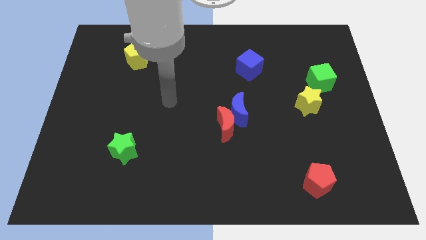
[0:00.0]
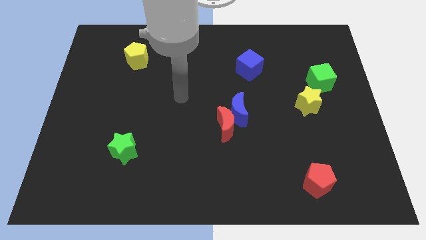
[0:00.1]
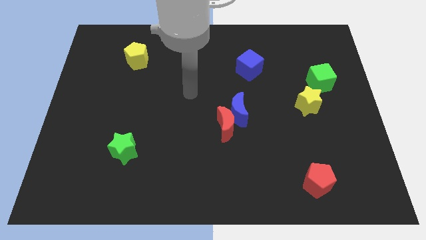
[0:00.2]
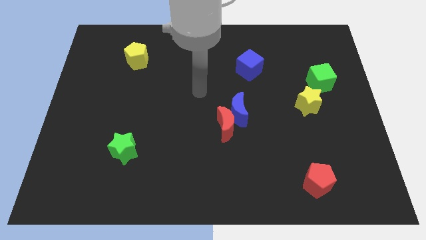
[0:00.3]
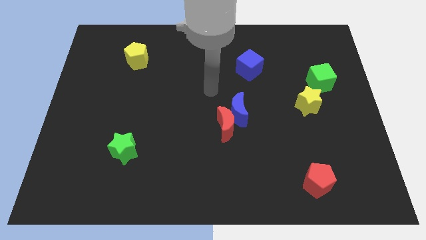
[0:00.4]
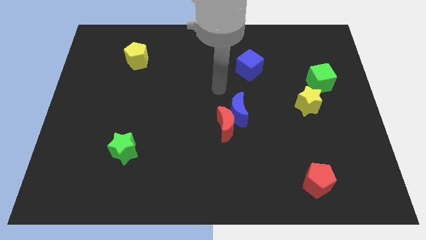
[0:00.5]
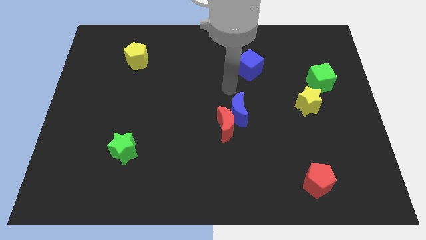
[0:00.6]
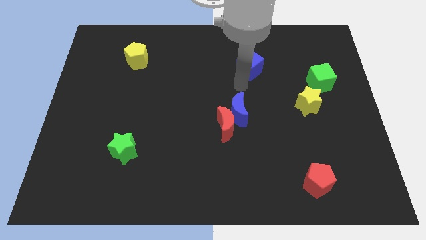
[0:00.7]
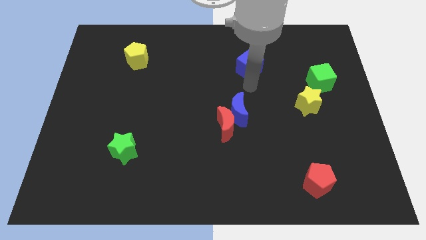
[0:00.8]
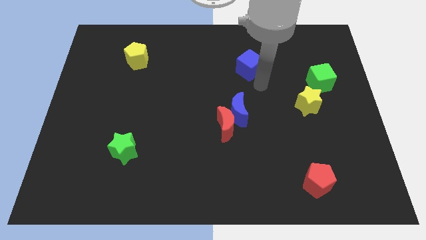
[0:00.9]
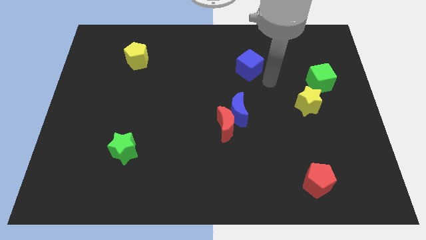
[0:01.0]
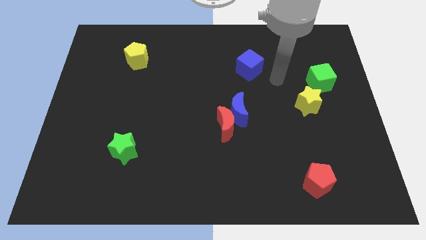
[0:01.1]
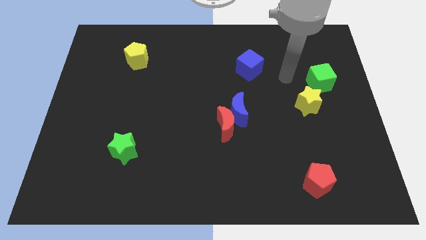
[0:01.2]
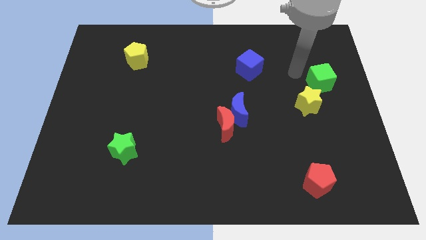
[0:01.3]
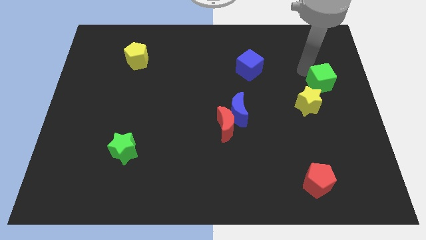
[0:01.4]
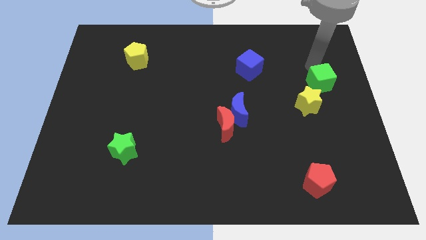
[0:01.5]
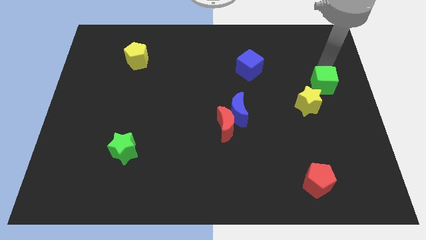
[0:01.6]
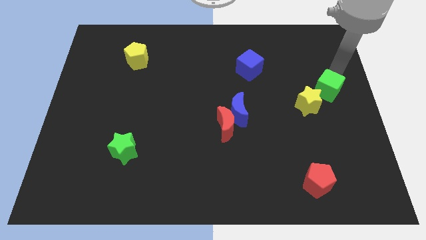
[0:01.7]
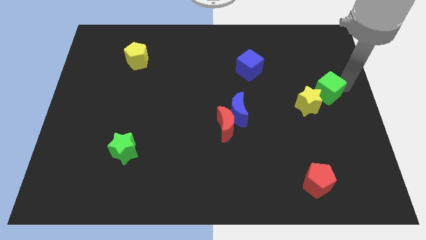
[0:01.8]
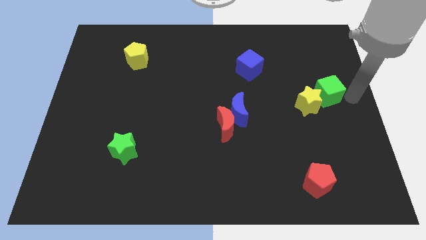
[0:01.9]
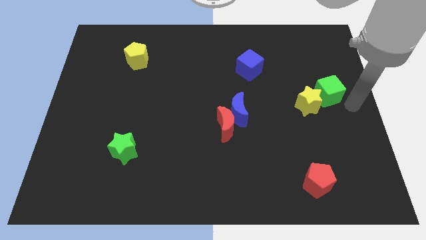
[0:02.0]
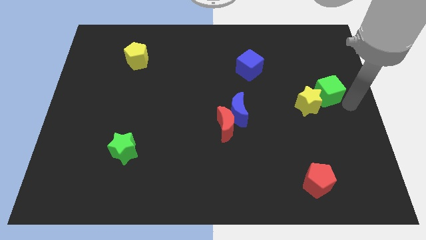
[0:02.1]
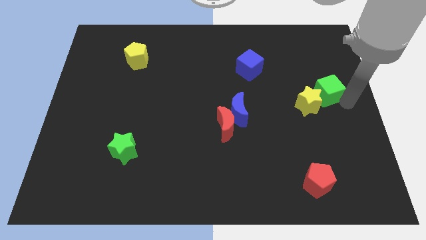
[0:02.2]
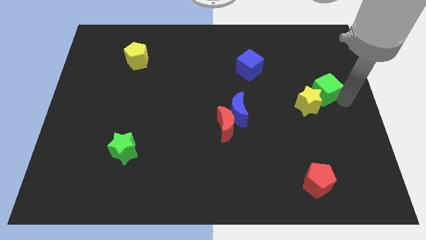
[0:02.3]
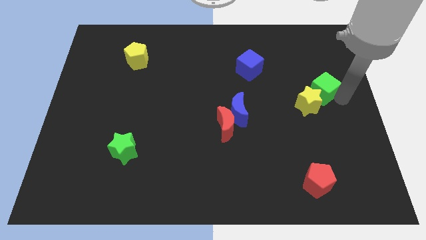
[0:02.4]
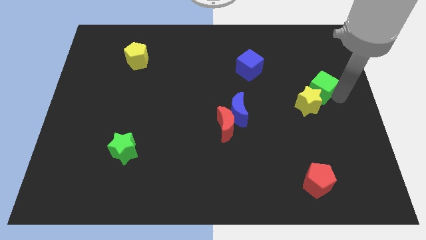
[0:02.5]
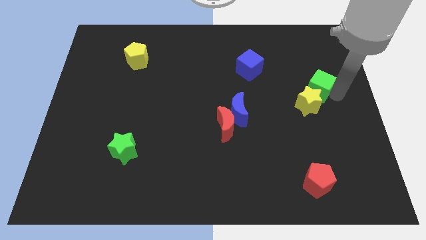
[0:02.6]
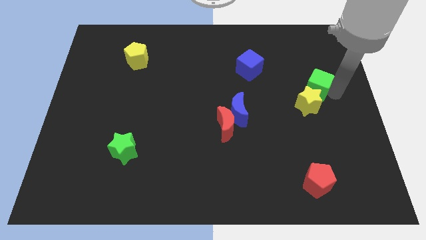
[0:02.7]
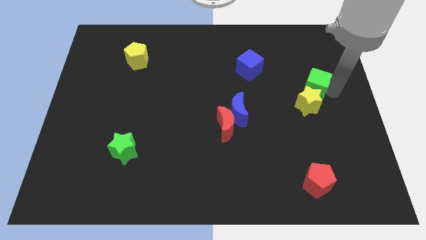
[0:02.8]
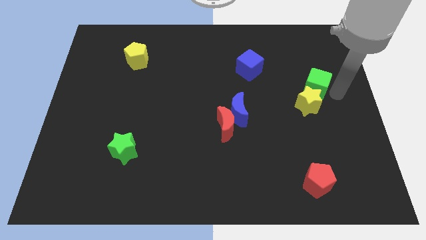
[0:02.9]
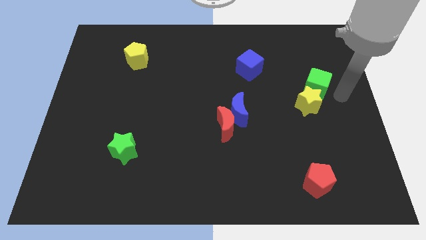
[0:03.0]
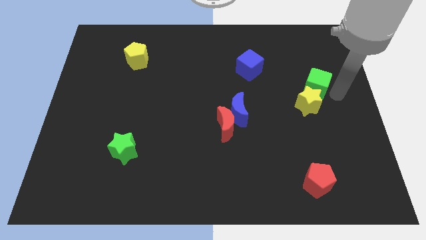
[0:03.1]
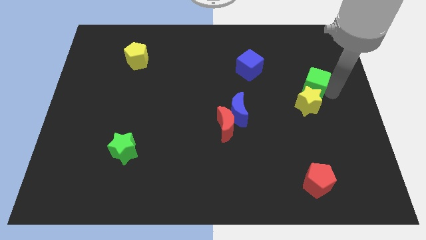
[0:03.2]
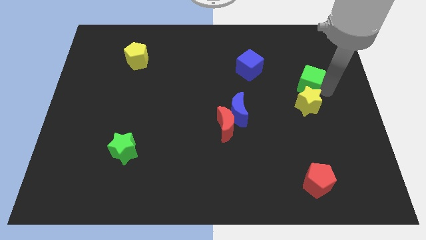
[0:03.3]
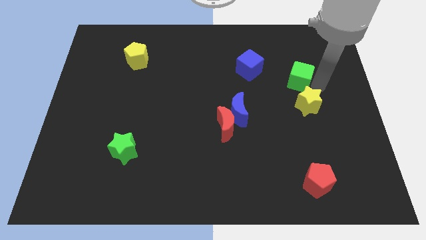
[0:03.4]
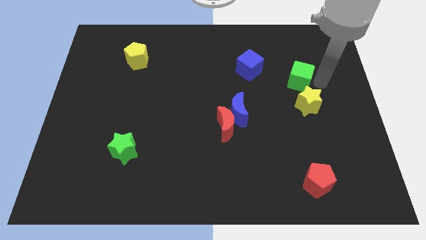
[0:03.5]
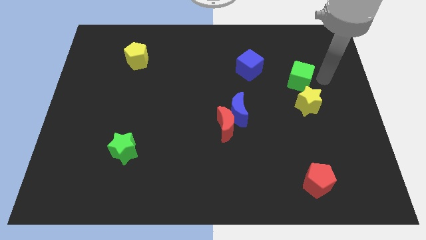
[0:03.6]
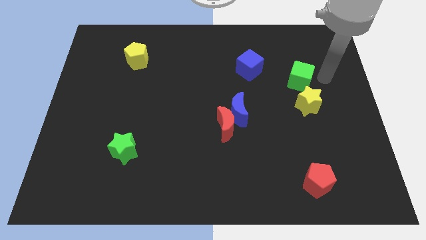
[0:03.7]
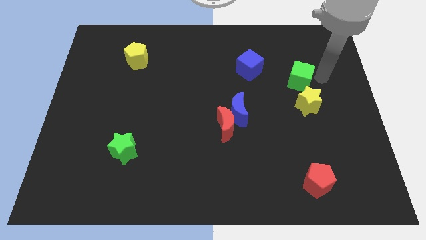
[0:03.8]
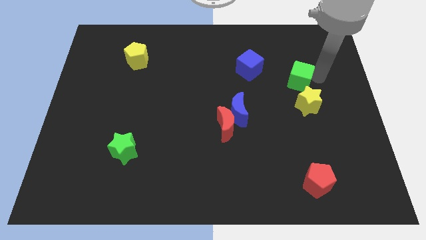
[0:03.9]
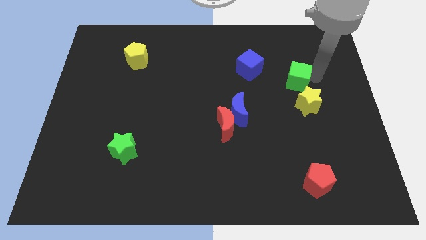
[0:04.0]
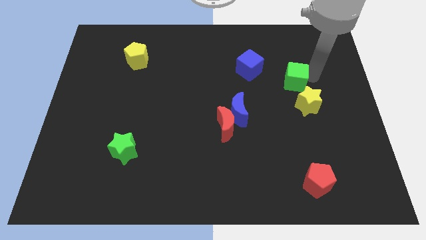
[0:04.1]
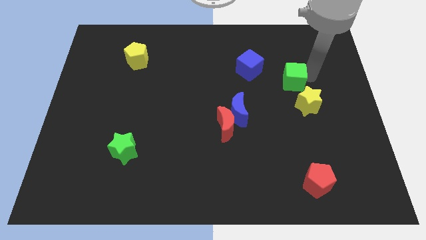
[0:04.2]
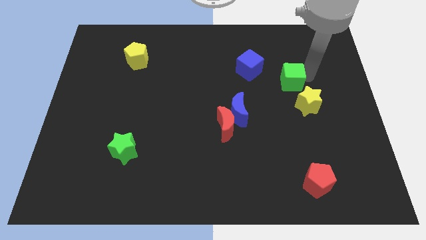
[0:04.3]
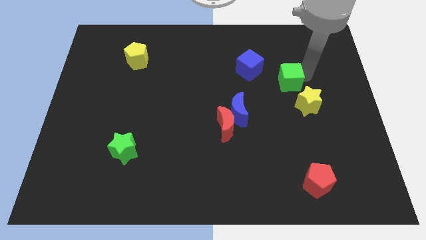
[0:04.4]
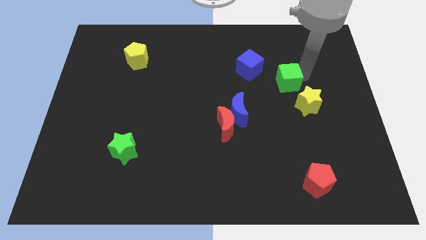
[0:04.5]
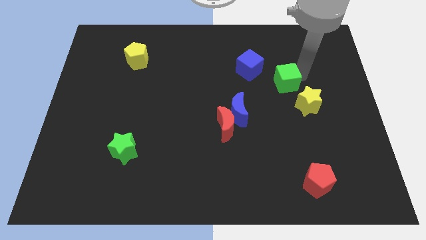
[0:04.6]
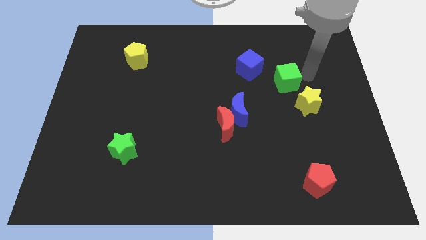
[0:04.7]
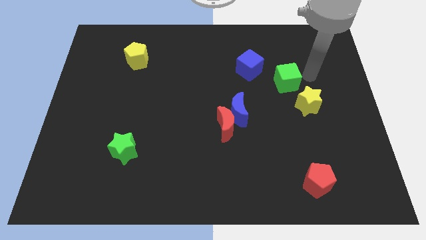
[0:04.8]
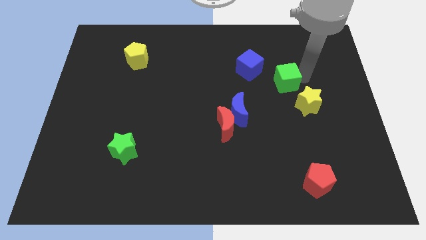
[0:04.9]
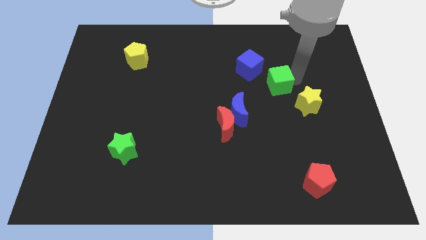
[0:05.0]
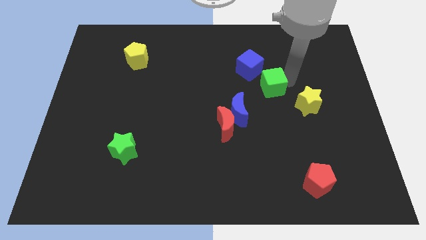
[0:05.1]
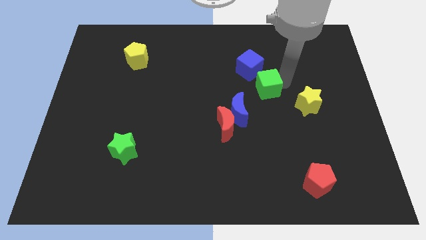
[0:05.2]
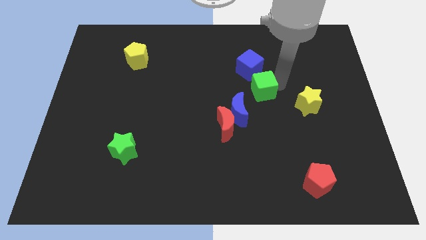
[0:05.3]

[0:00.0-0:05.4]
push the green cube to the middle of the board

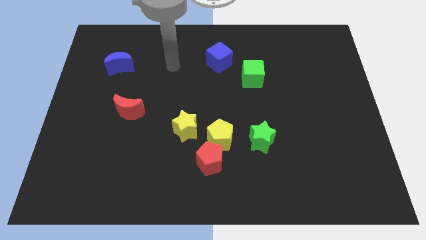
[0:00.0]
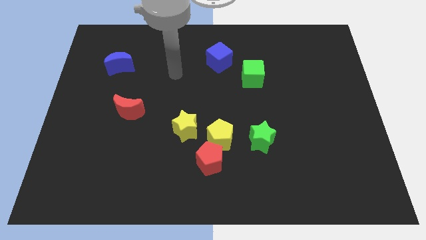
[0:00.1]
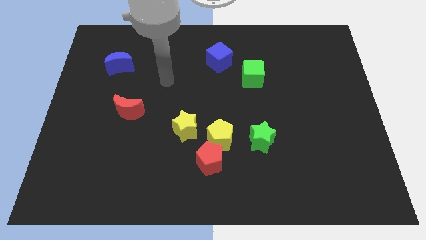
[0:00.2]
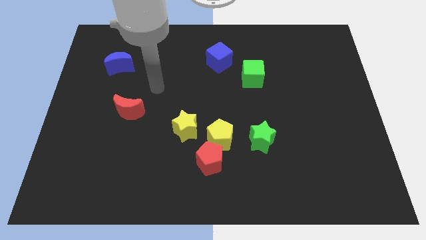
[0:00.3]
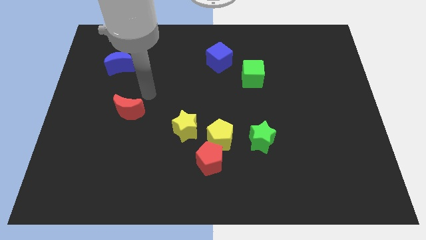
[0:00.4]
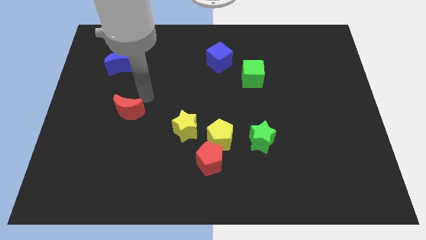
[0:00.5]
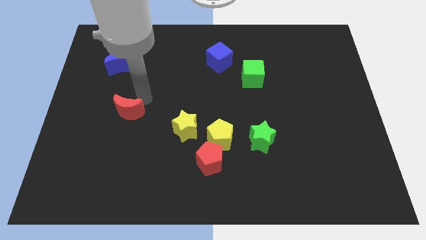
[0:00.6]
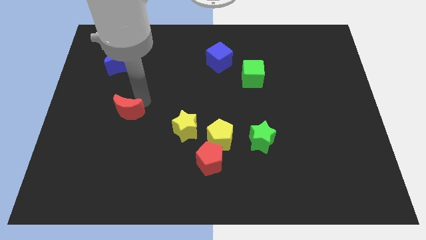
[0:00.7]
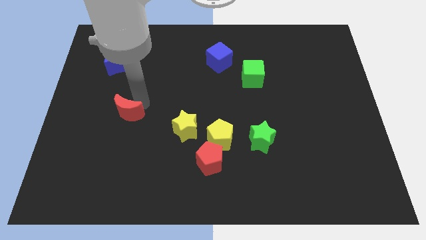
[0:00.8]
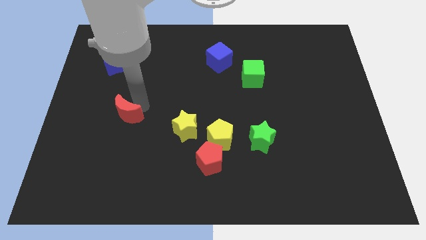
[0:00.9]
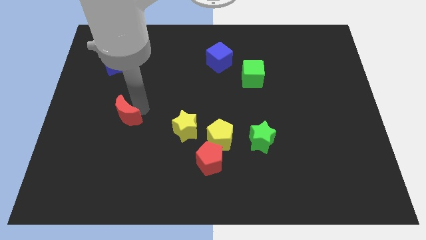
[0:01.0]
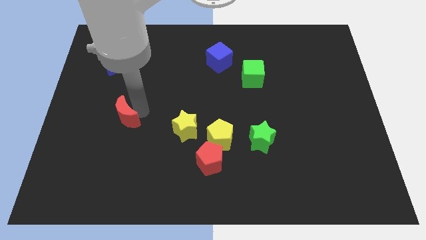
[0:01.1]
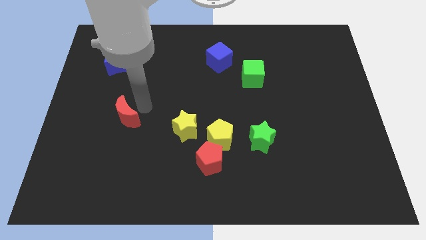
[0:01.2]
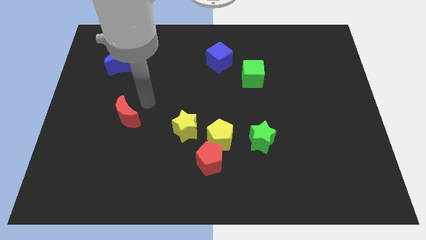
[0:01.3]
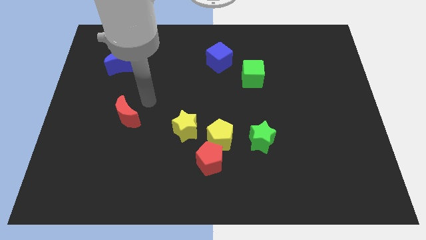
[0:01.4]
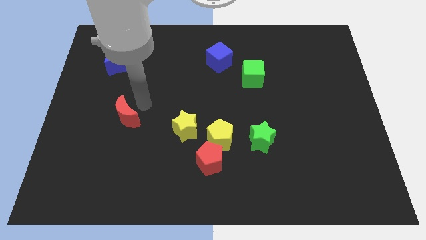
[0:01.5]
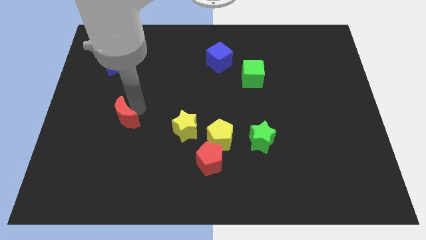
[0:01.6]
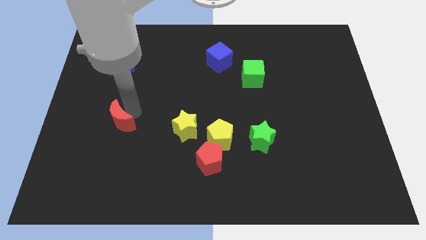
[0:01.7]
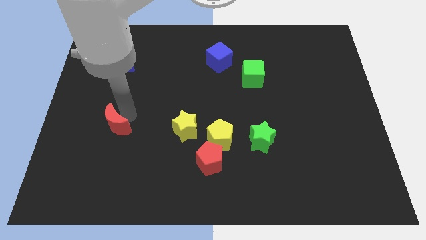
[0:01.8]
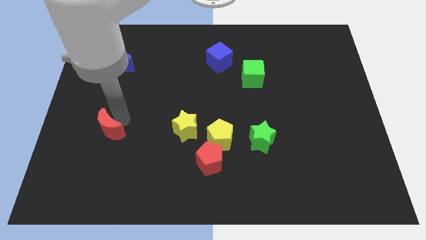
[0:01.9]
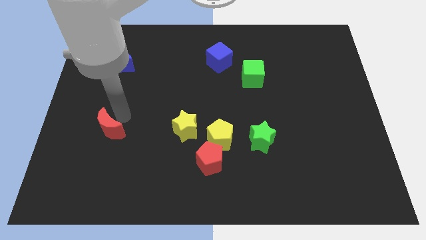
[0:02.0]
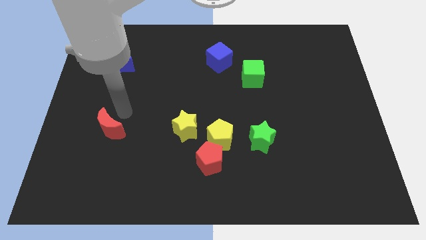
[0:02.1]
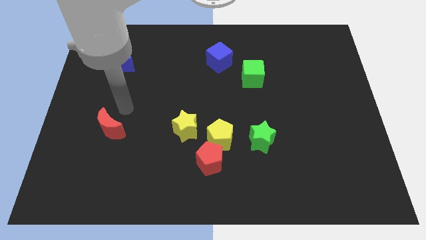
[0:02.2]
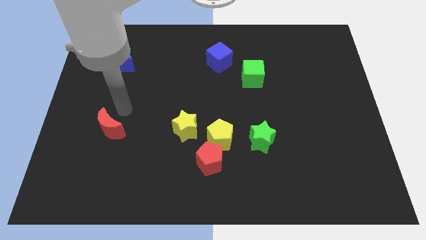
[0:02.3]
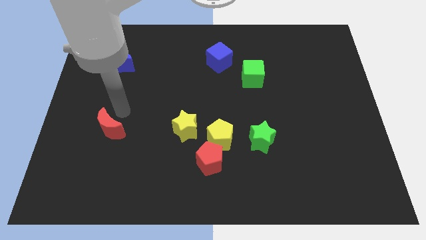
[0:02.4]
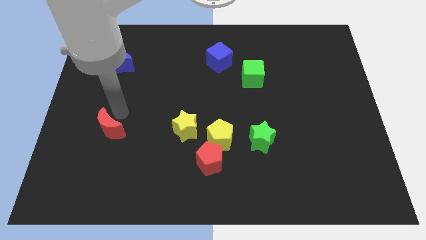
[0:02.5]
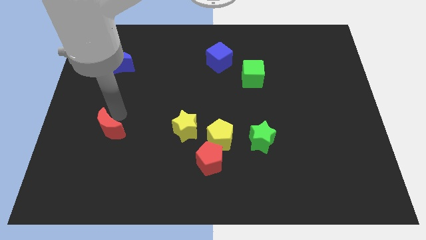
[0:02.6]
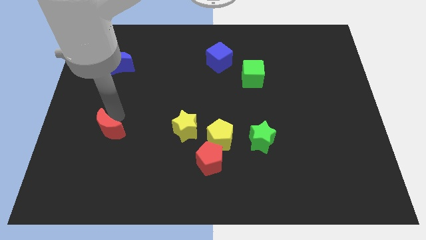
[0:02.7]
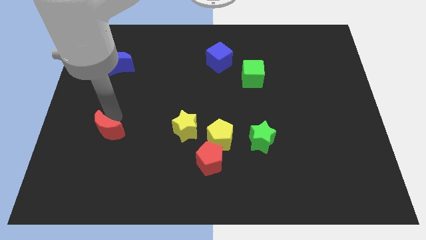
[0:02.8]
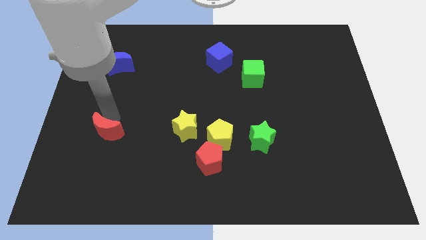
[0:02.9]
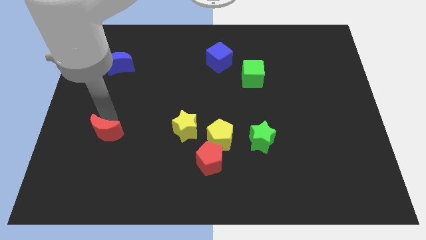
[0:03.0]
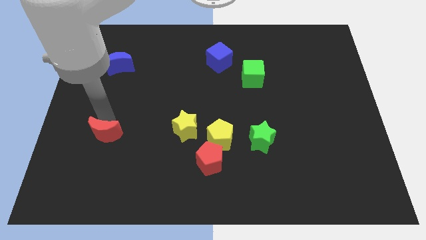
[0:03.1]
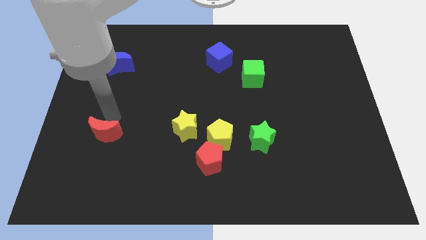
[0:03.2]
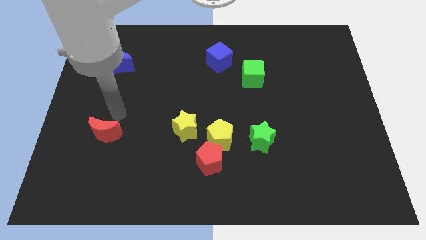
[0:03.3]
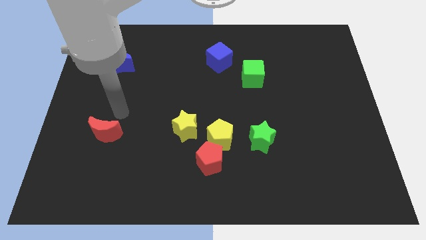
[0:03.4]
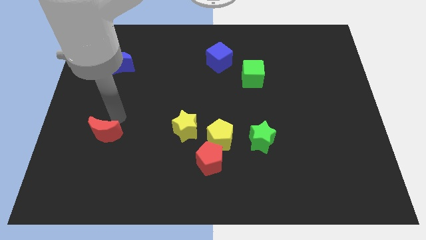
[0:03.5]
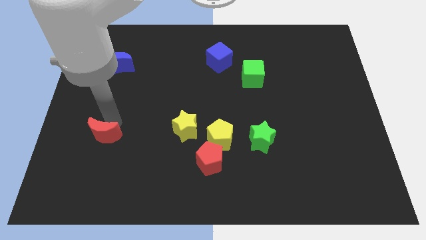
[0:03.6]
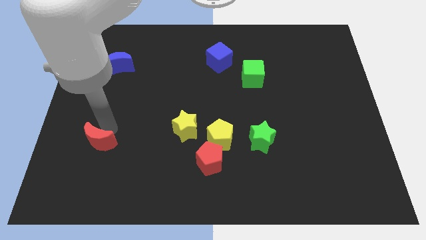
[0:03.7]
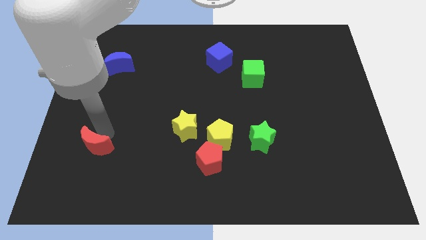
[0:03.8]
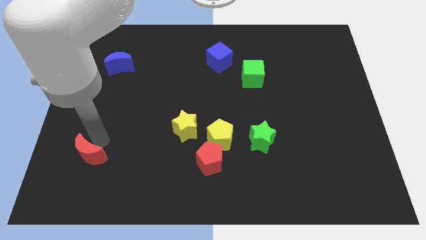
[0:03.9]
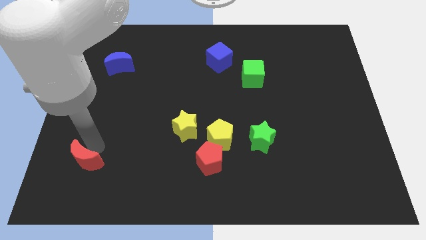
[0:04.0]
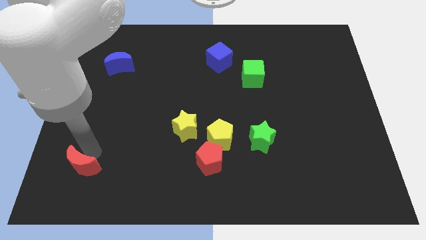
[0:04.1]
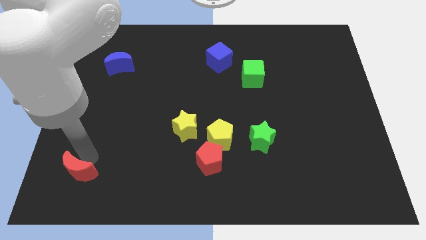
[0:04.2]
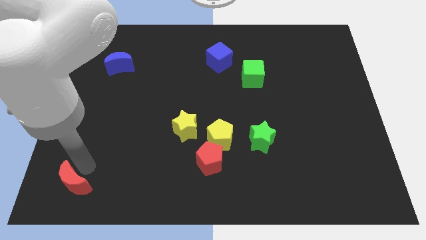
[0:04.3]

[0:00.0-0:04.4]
put the red moon to the bottom left
